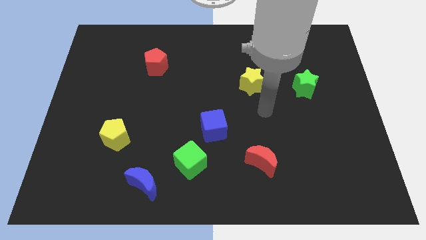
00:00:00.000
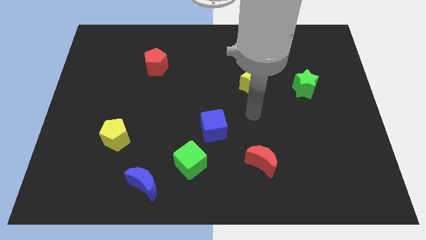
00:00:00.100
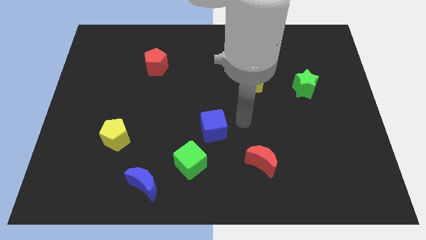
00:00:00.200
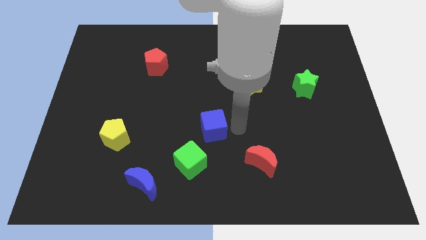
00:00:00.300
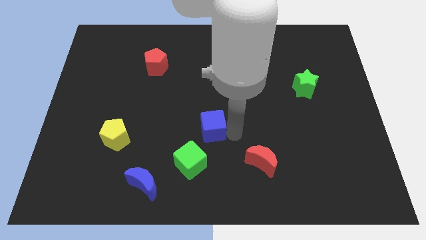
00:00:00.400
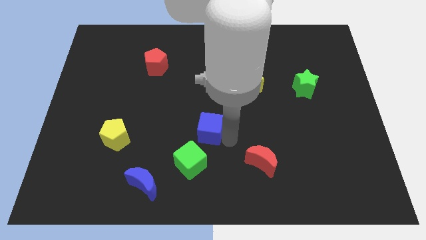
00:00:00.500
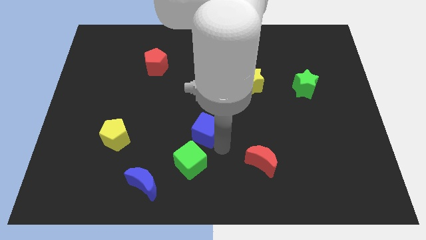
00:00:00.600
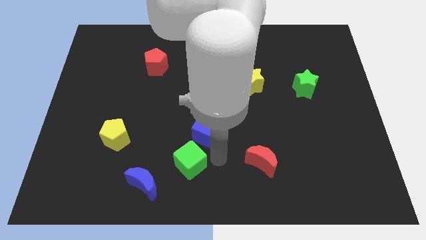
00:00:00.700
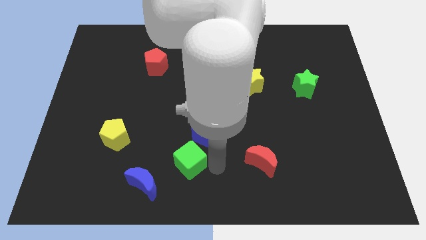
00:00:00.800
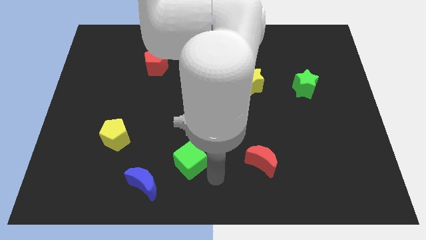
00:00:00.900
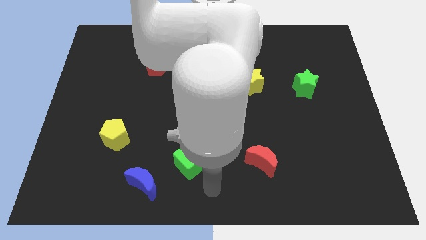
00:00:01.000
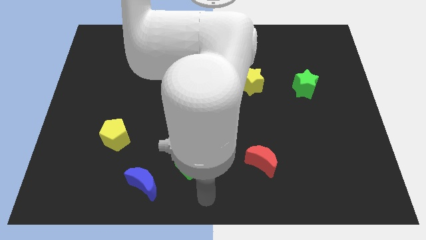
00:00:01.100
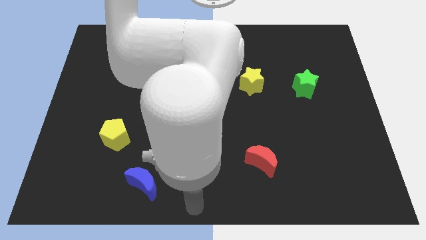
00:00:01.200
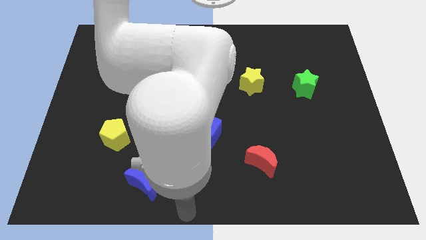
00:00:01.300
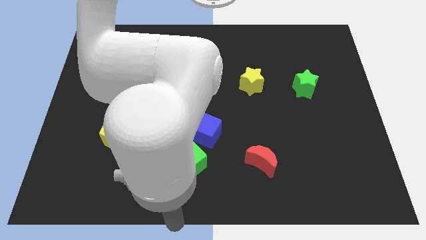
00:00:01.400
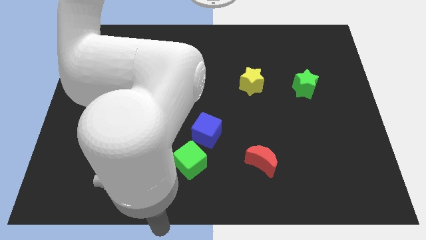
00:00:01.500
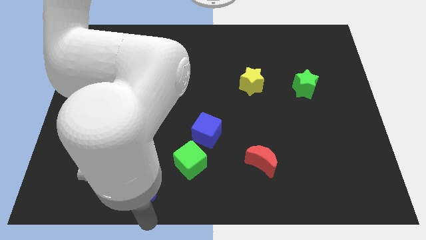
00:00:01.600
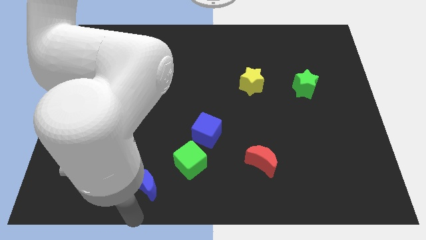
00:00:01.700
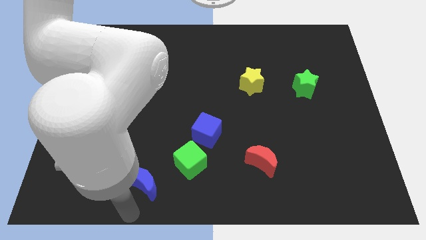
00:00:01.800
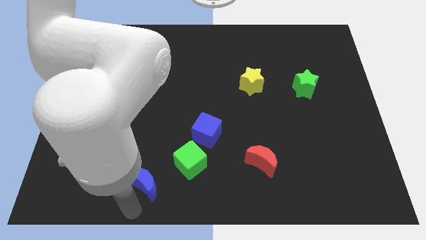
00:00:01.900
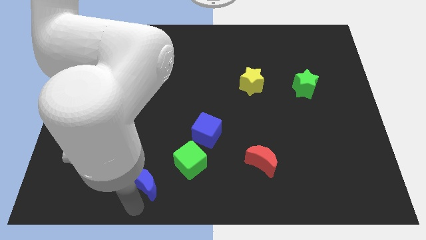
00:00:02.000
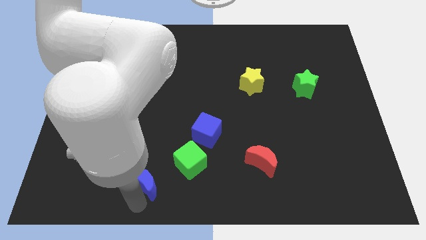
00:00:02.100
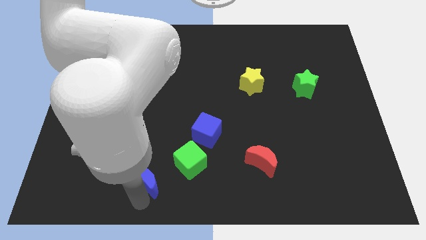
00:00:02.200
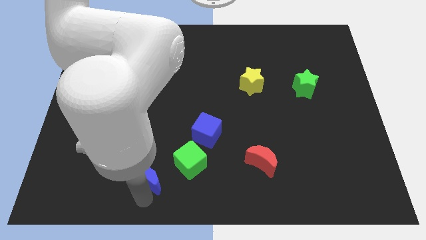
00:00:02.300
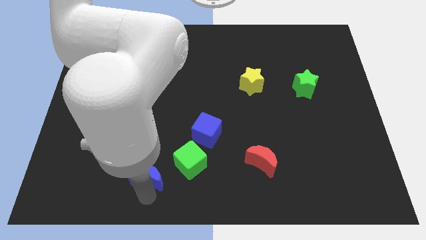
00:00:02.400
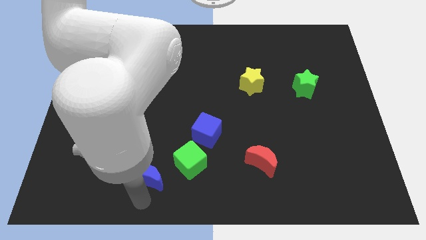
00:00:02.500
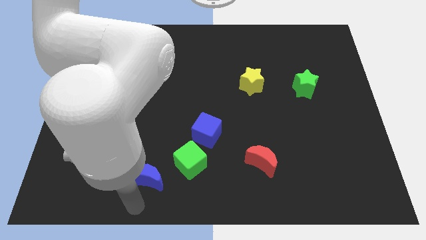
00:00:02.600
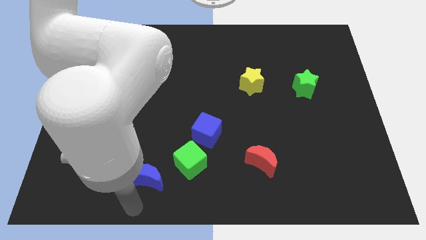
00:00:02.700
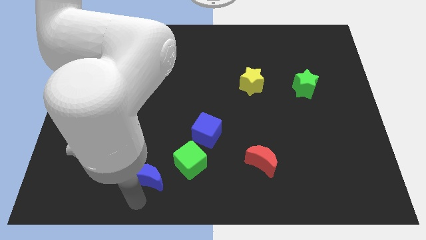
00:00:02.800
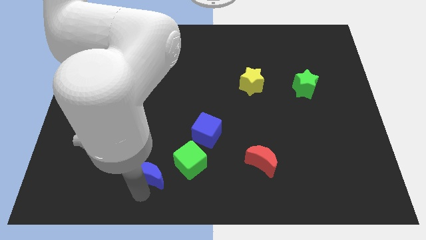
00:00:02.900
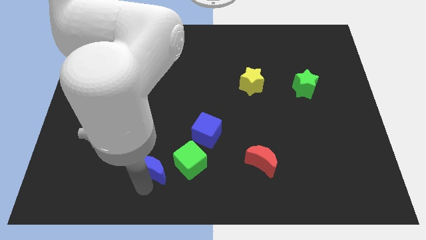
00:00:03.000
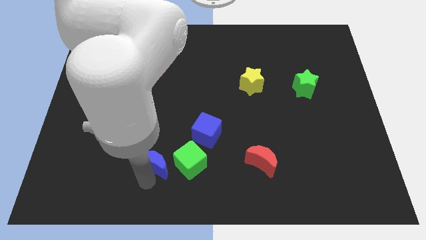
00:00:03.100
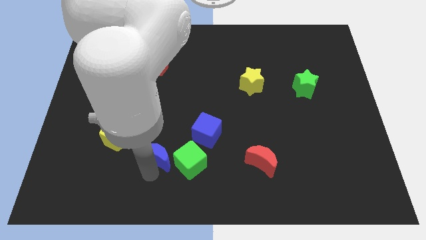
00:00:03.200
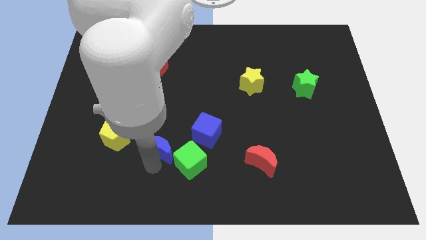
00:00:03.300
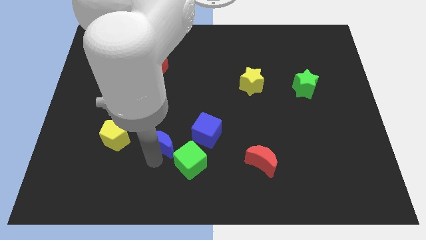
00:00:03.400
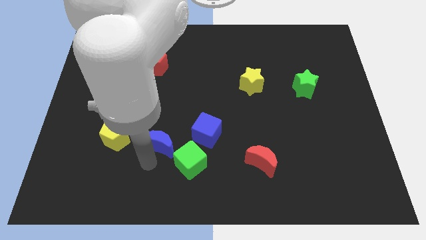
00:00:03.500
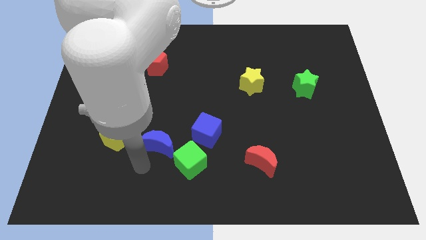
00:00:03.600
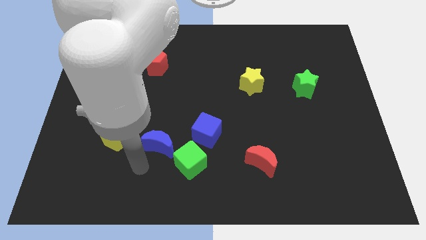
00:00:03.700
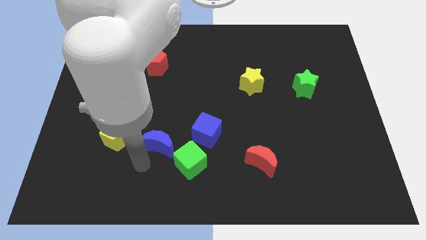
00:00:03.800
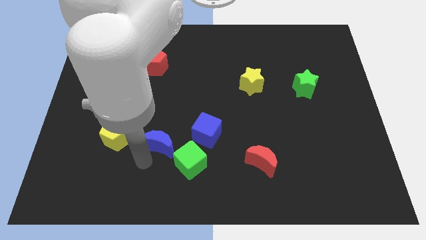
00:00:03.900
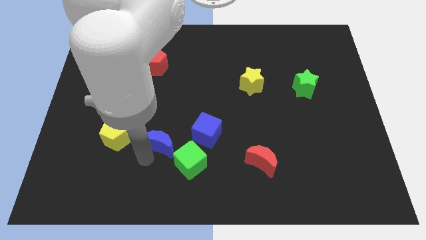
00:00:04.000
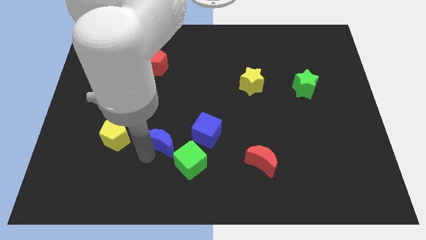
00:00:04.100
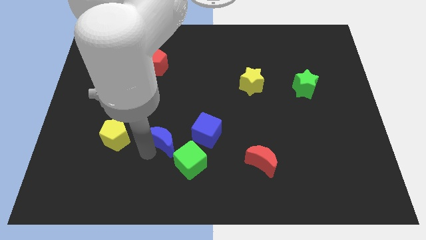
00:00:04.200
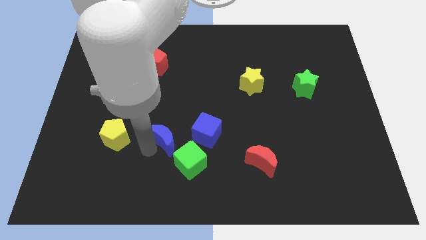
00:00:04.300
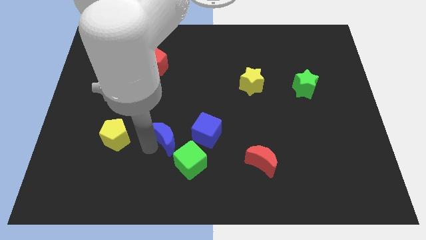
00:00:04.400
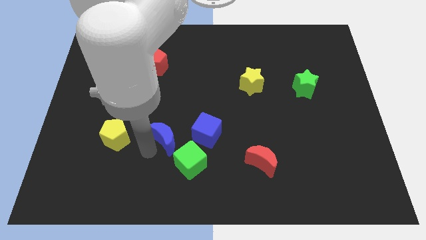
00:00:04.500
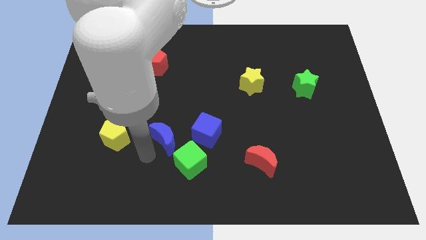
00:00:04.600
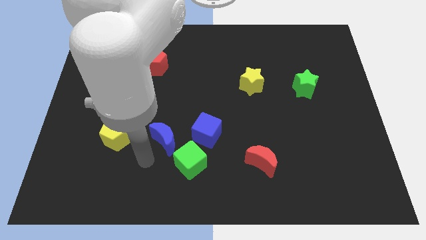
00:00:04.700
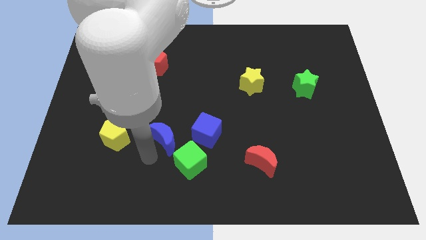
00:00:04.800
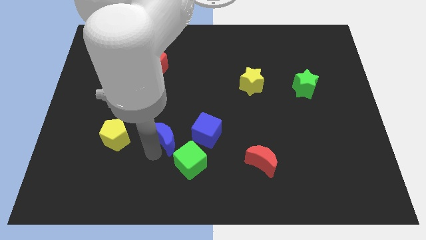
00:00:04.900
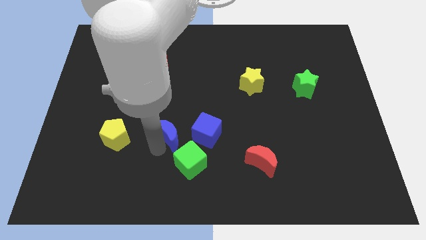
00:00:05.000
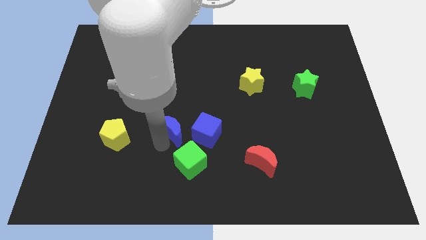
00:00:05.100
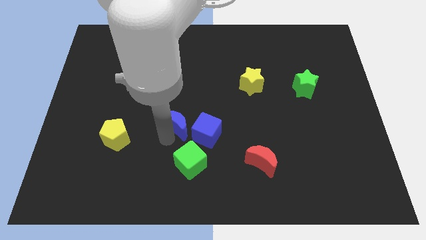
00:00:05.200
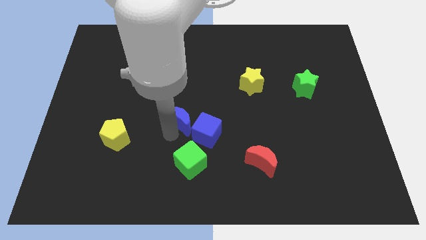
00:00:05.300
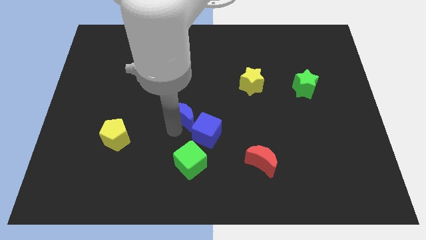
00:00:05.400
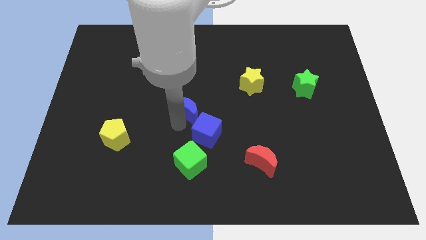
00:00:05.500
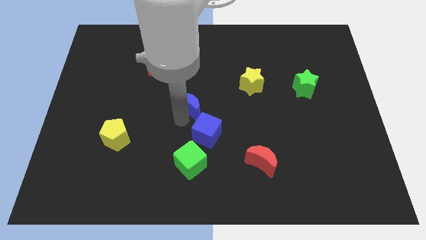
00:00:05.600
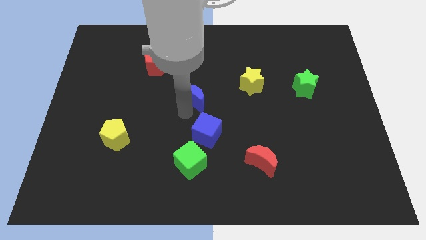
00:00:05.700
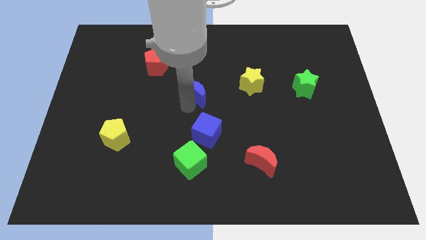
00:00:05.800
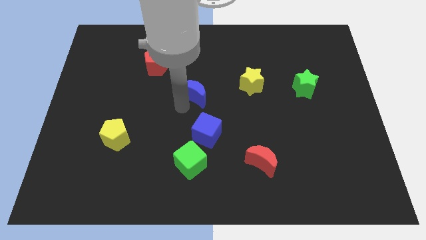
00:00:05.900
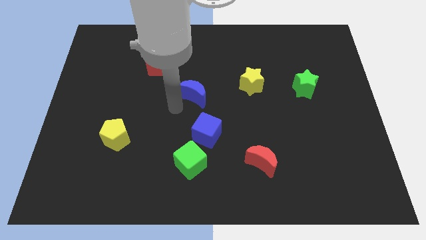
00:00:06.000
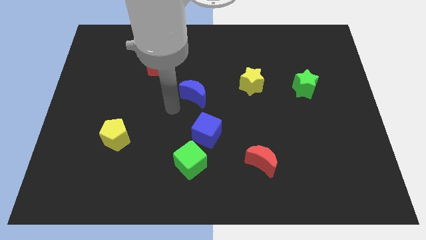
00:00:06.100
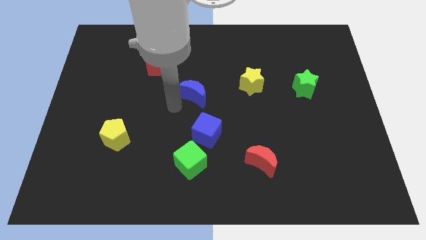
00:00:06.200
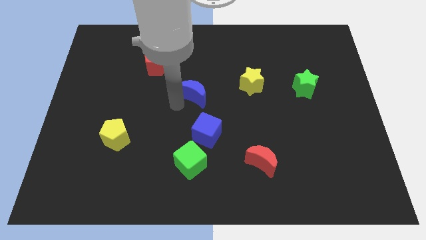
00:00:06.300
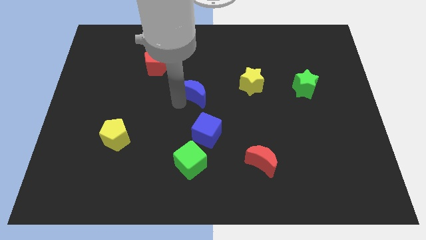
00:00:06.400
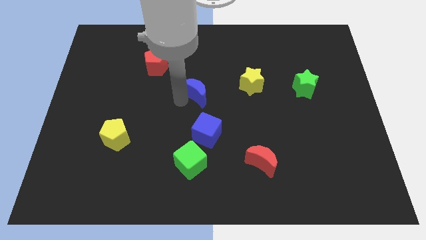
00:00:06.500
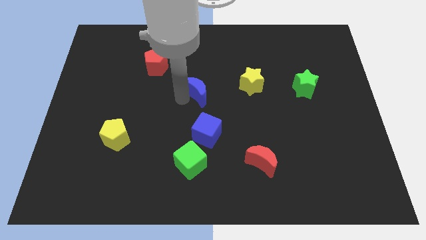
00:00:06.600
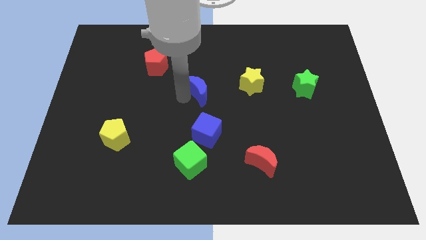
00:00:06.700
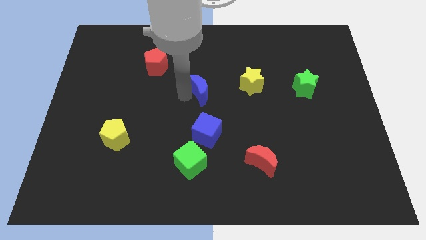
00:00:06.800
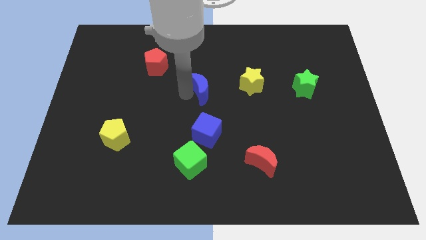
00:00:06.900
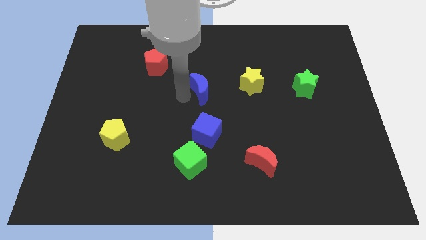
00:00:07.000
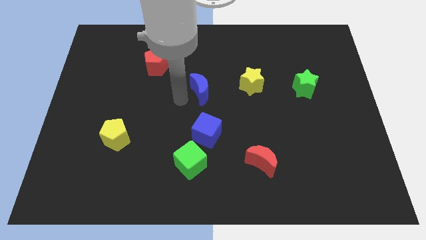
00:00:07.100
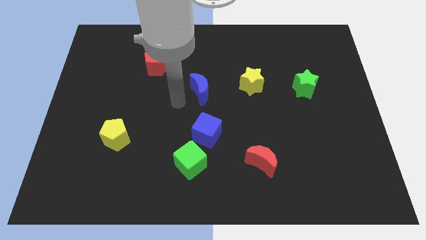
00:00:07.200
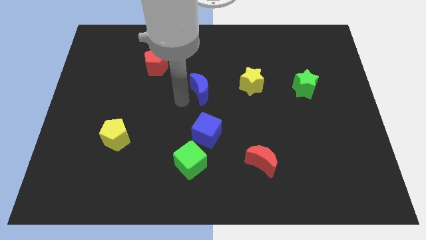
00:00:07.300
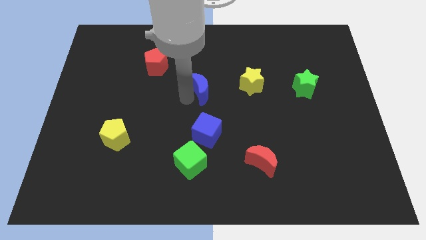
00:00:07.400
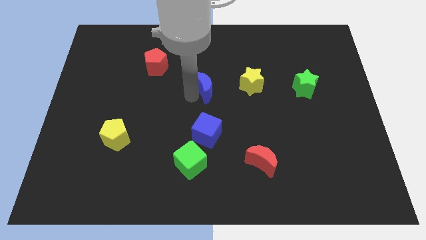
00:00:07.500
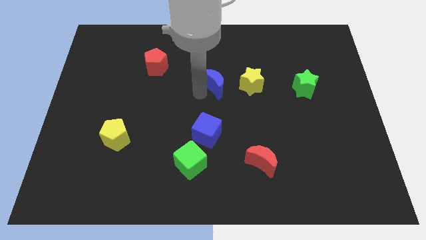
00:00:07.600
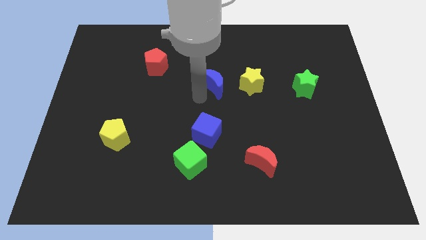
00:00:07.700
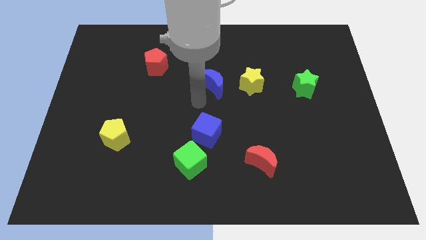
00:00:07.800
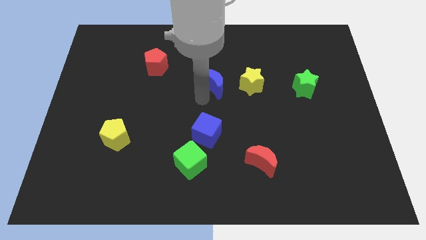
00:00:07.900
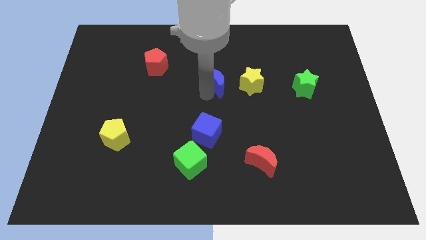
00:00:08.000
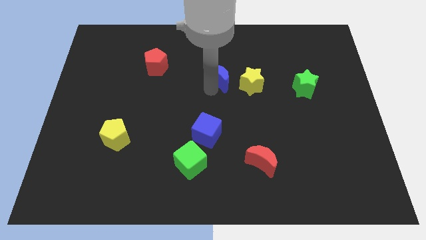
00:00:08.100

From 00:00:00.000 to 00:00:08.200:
push the blue moon diagonally up and to the left of the yellow star

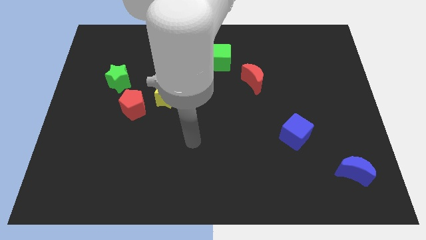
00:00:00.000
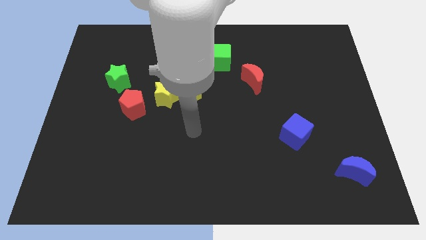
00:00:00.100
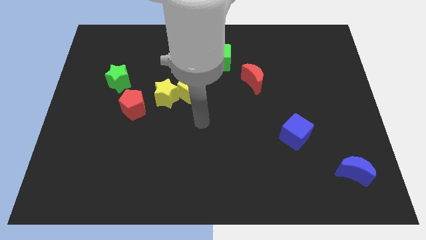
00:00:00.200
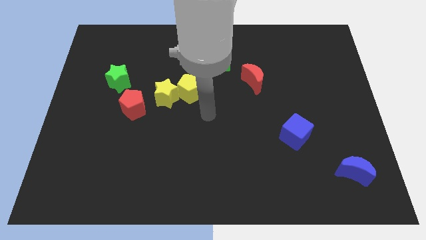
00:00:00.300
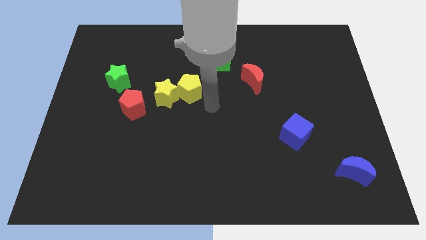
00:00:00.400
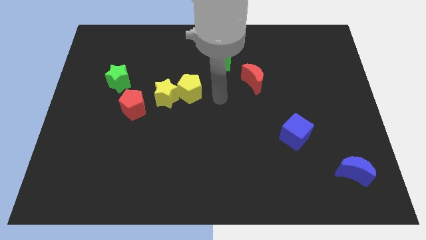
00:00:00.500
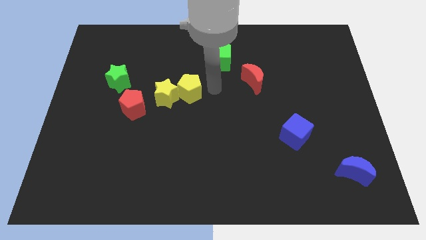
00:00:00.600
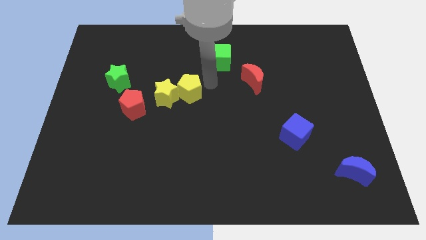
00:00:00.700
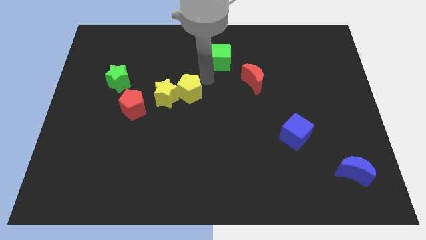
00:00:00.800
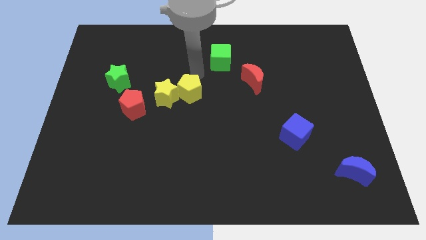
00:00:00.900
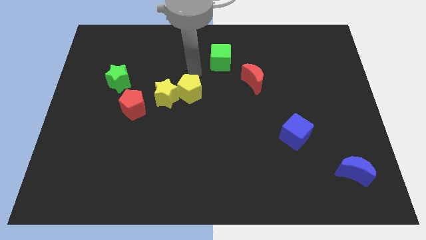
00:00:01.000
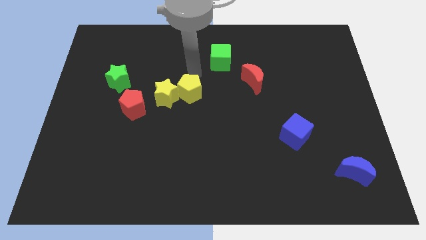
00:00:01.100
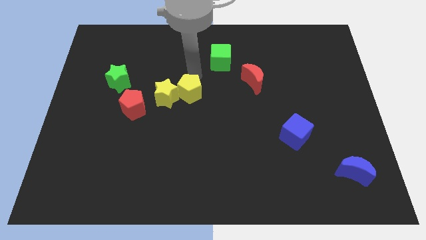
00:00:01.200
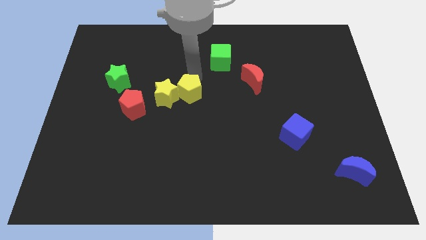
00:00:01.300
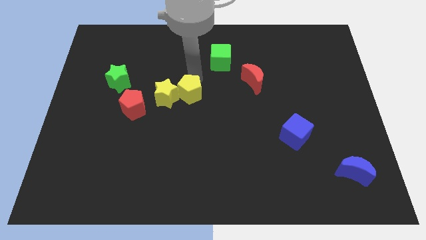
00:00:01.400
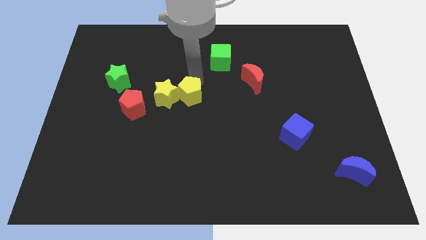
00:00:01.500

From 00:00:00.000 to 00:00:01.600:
slide the yellow pentagon to the bottom right side of the yellow star
